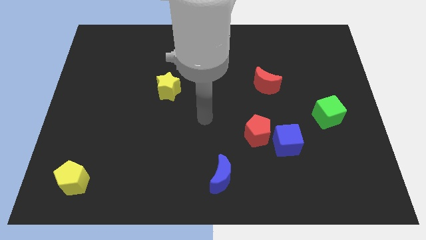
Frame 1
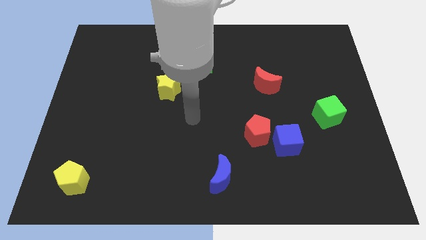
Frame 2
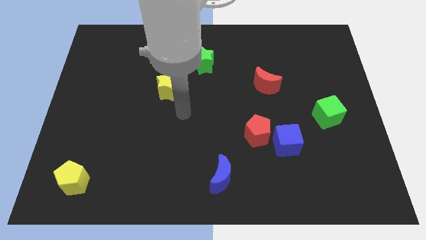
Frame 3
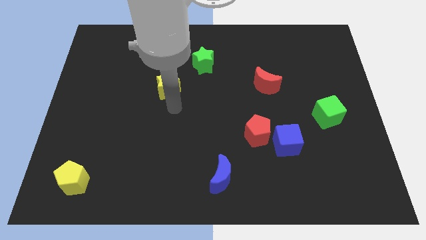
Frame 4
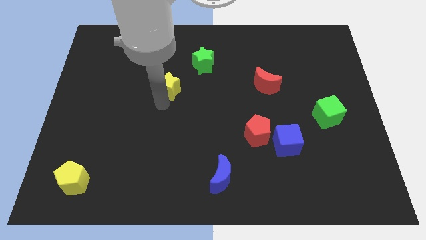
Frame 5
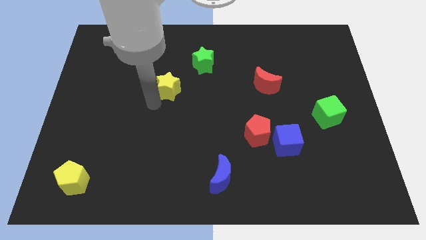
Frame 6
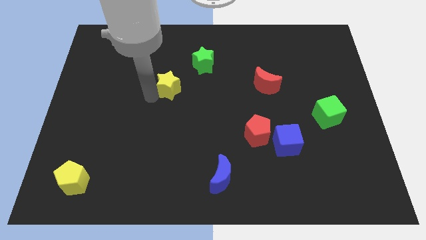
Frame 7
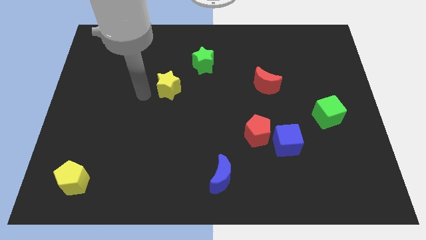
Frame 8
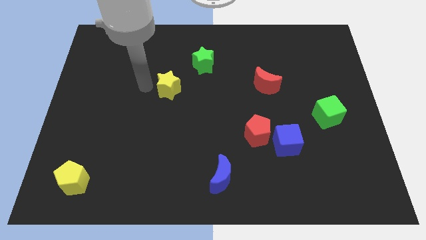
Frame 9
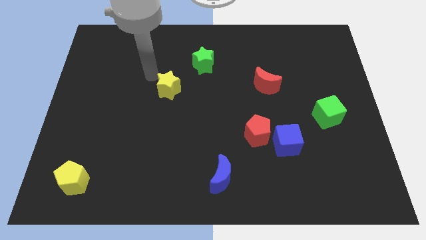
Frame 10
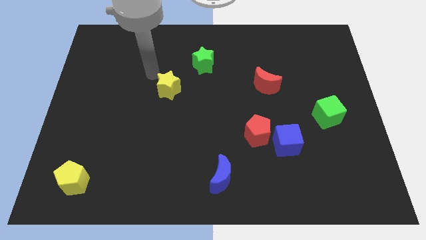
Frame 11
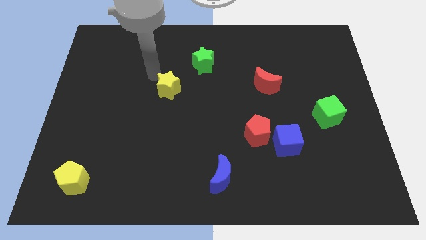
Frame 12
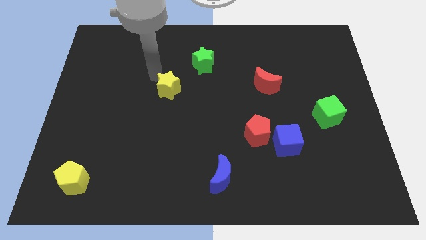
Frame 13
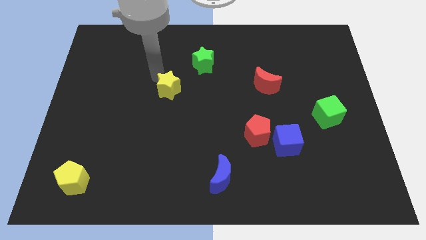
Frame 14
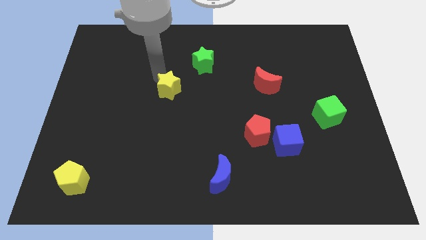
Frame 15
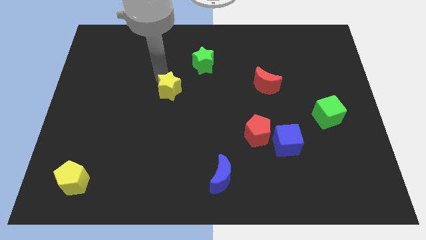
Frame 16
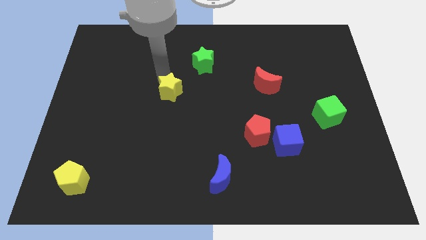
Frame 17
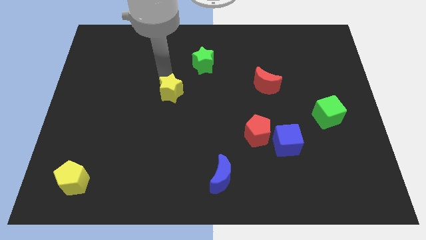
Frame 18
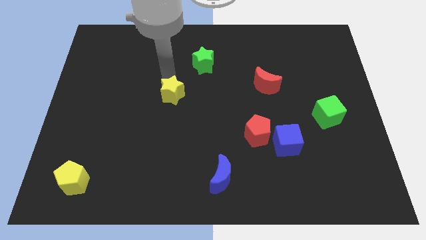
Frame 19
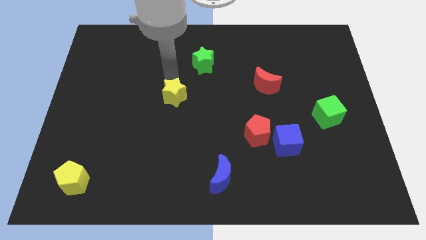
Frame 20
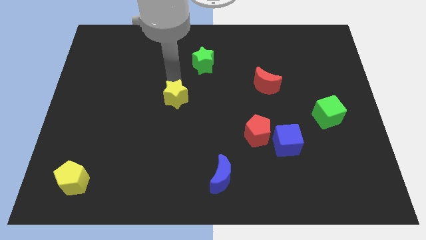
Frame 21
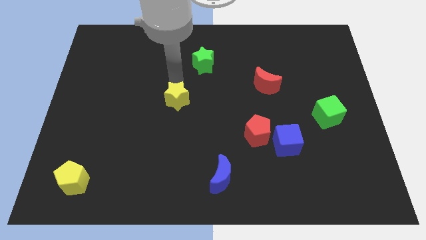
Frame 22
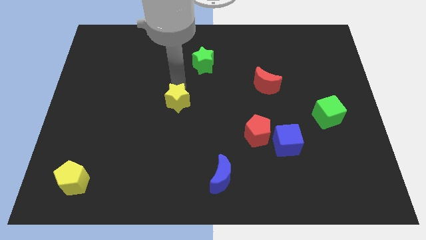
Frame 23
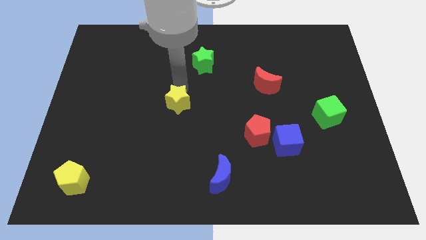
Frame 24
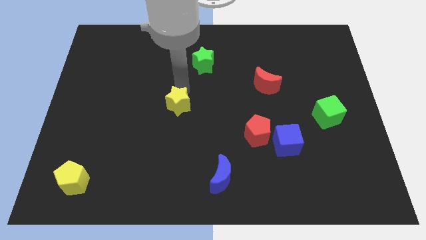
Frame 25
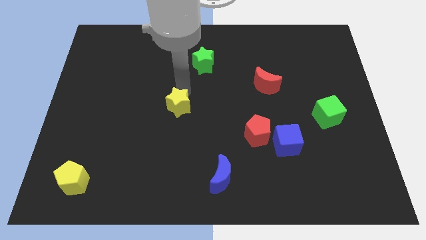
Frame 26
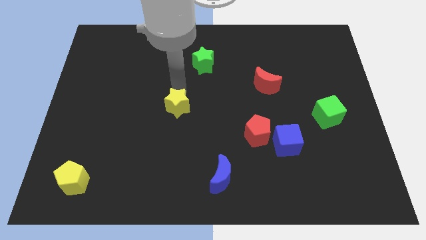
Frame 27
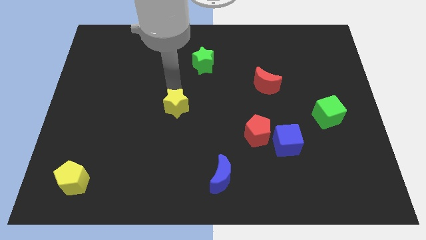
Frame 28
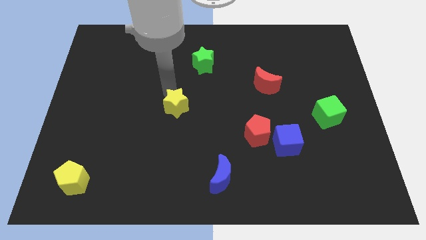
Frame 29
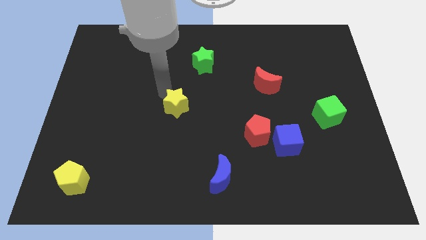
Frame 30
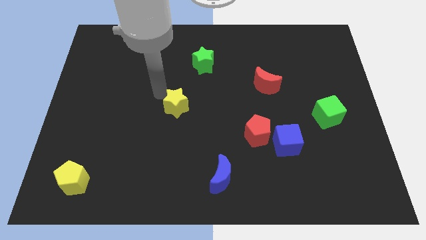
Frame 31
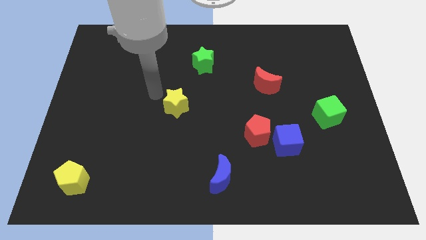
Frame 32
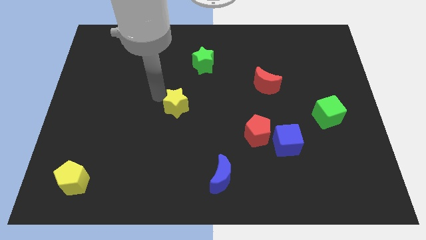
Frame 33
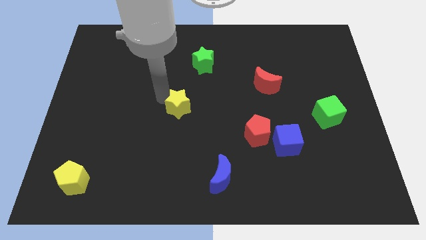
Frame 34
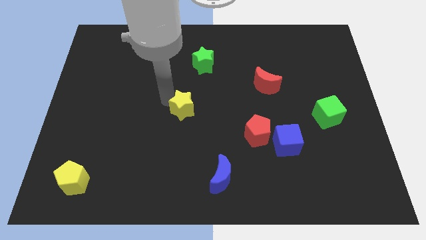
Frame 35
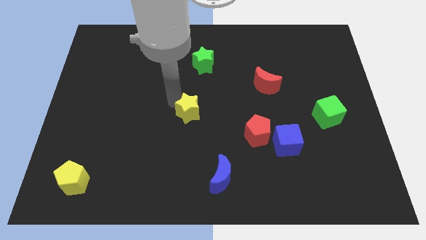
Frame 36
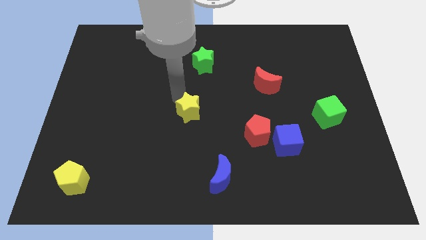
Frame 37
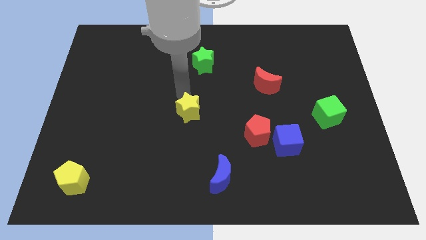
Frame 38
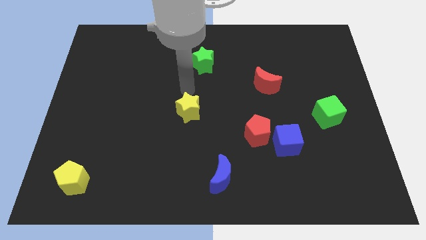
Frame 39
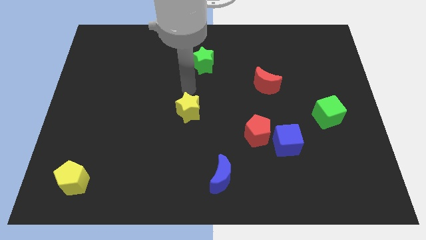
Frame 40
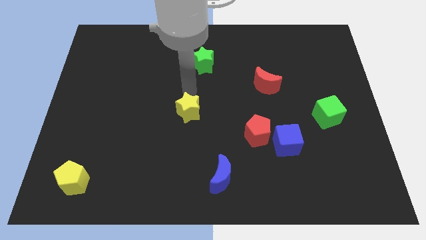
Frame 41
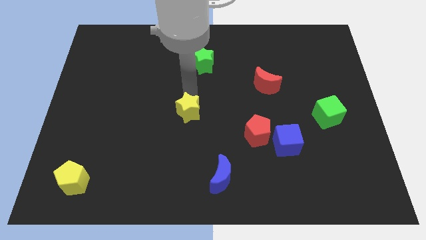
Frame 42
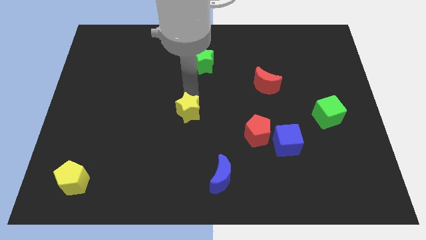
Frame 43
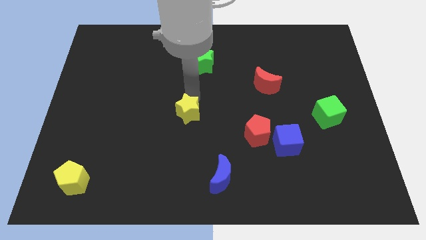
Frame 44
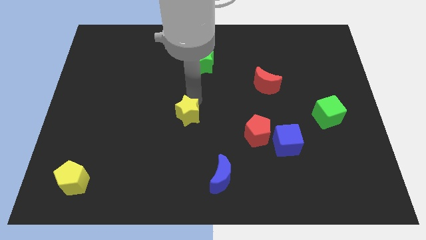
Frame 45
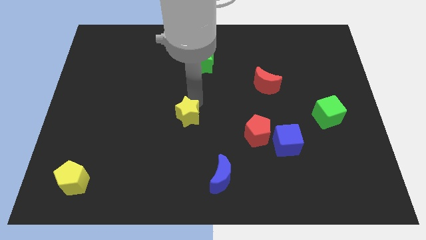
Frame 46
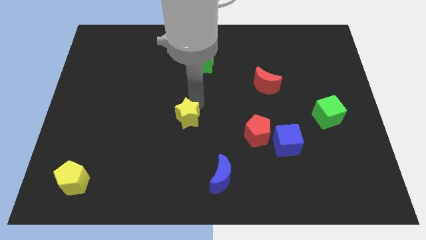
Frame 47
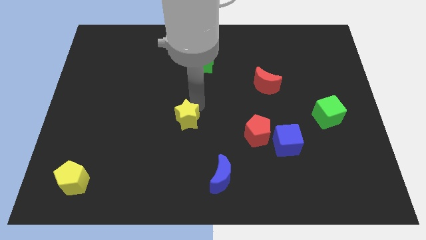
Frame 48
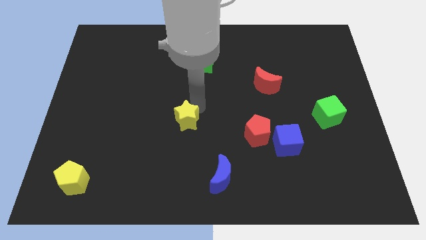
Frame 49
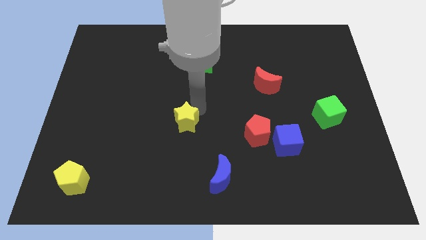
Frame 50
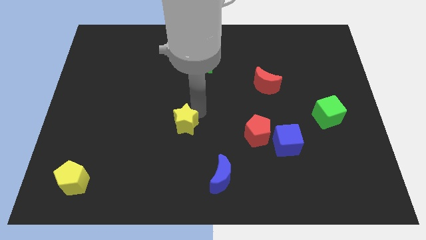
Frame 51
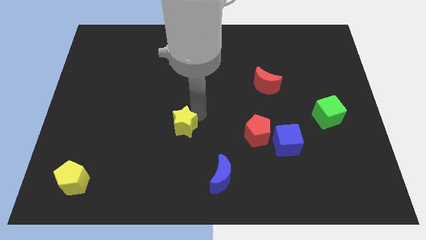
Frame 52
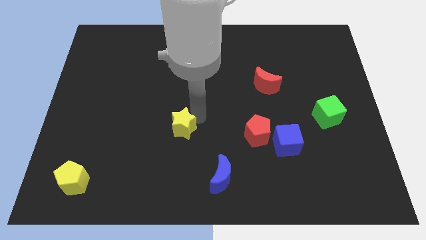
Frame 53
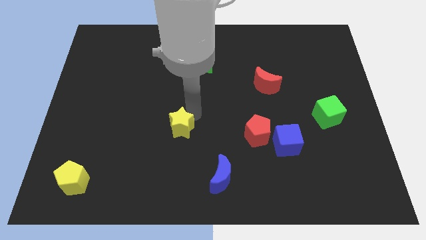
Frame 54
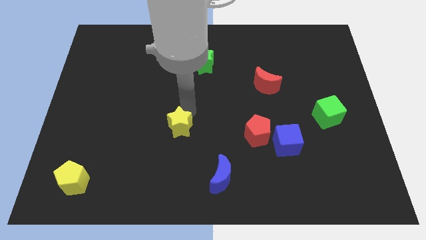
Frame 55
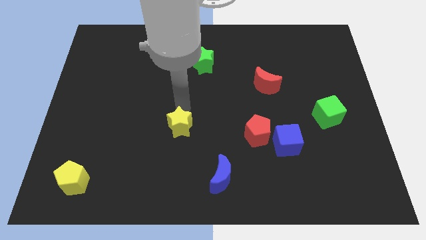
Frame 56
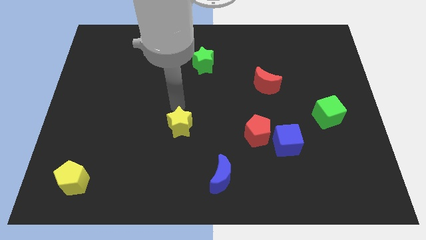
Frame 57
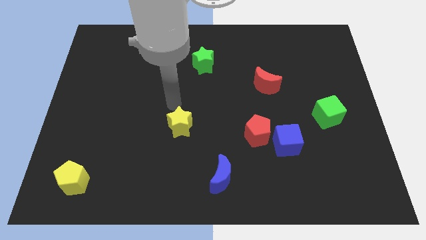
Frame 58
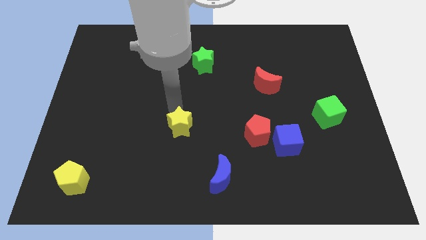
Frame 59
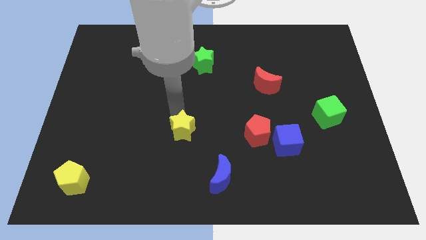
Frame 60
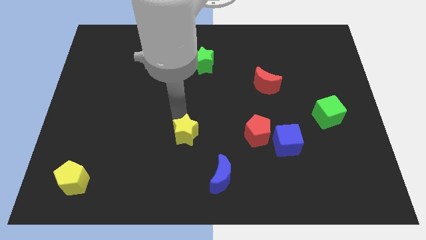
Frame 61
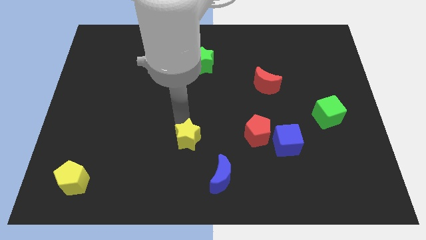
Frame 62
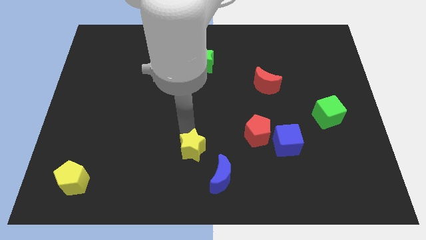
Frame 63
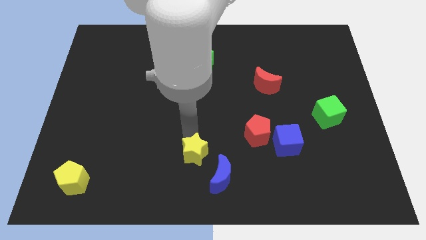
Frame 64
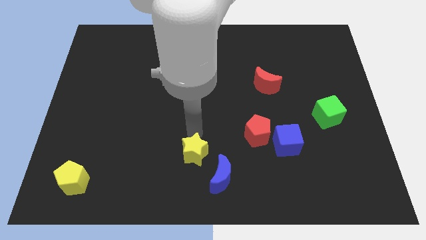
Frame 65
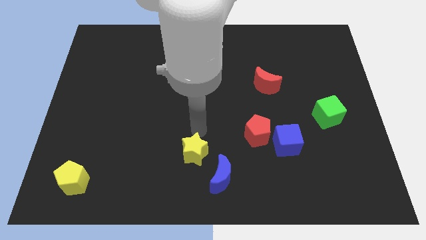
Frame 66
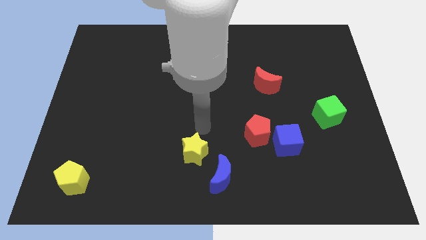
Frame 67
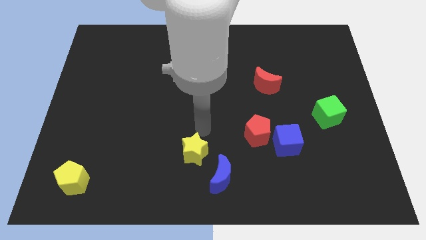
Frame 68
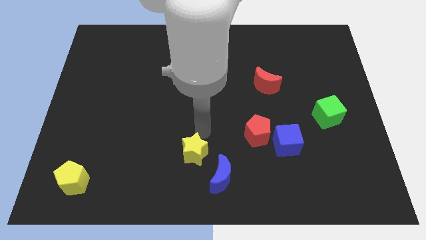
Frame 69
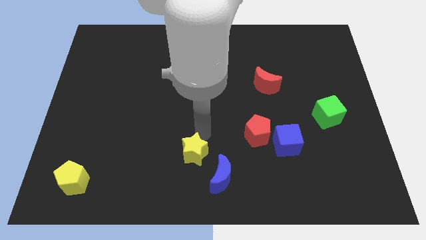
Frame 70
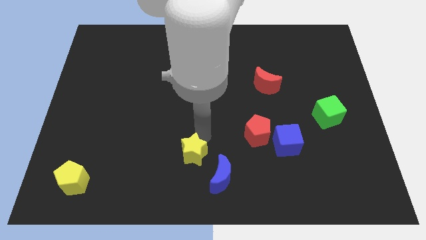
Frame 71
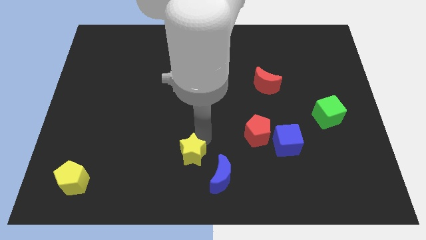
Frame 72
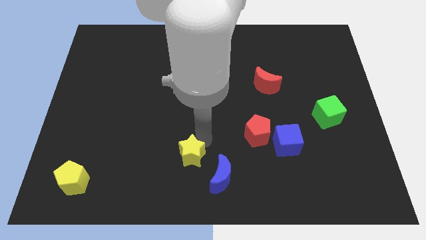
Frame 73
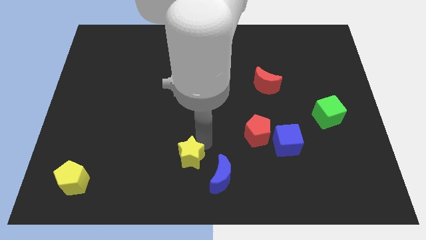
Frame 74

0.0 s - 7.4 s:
move the yellow star to the bottom side
